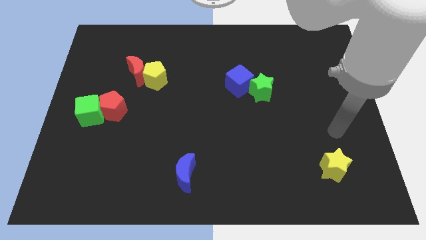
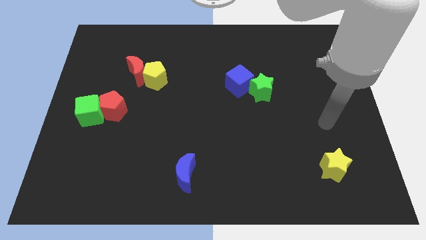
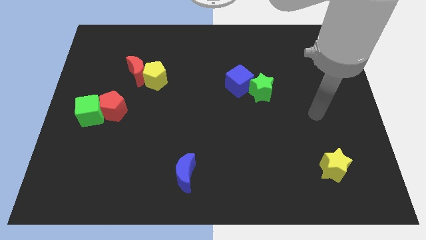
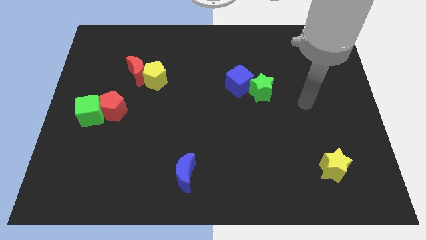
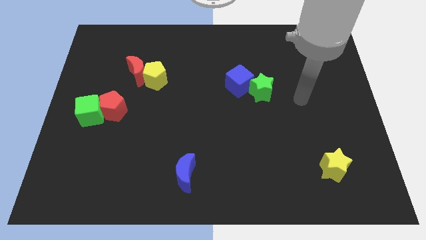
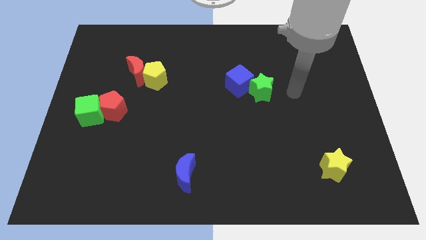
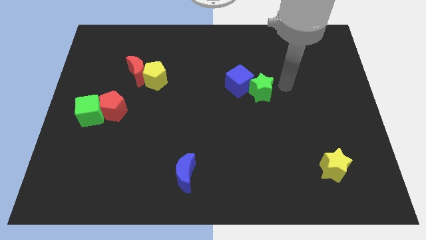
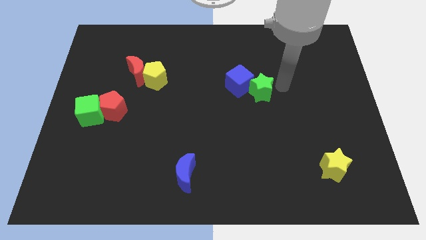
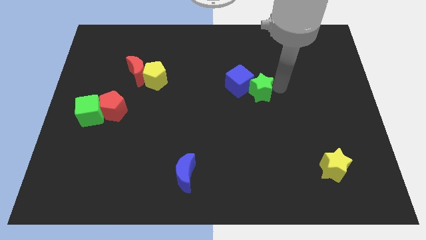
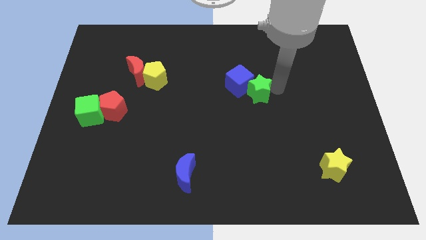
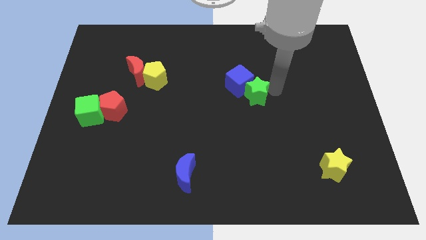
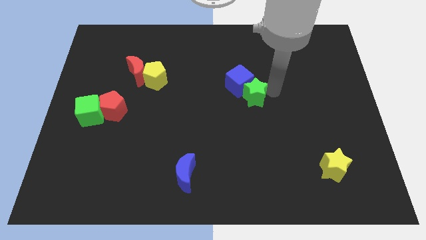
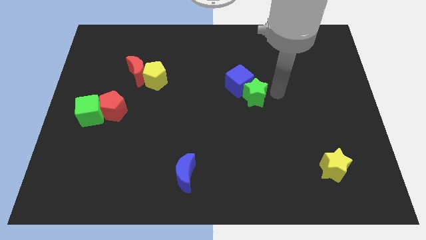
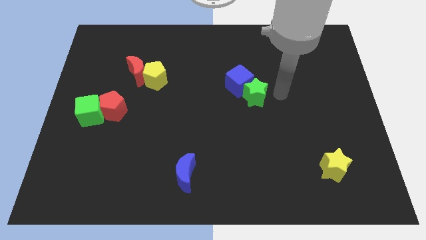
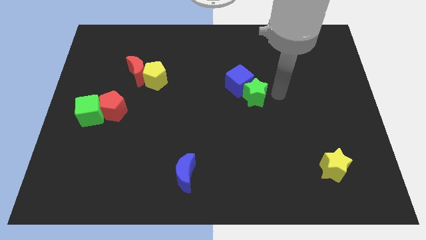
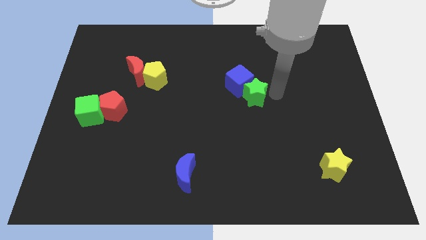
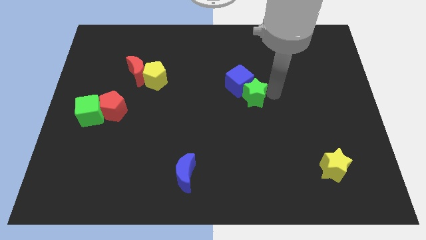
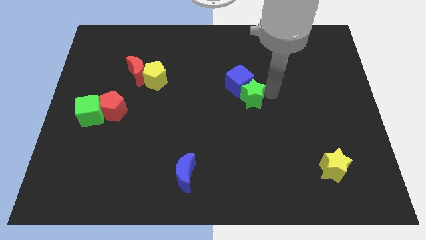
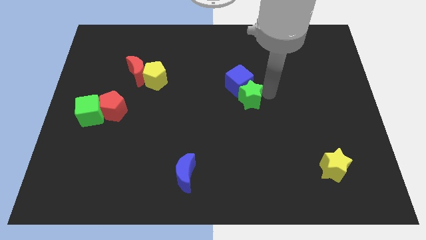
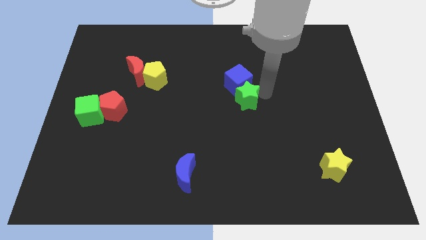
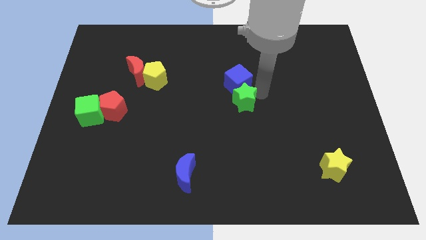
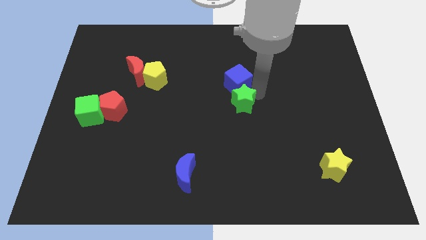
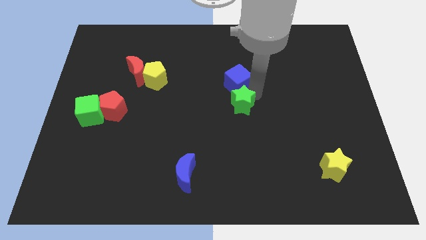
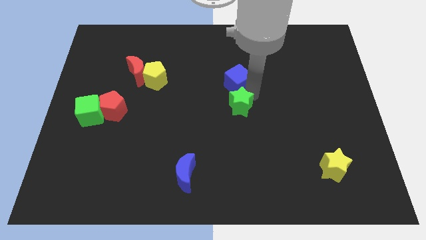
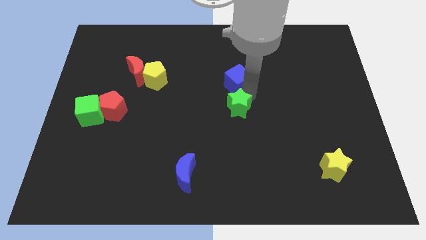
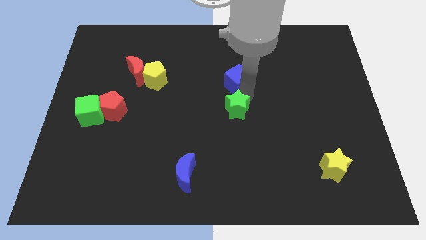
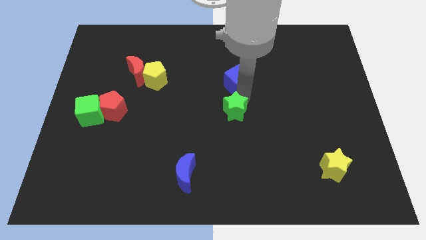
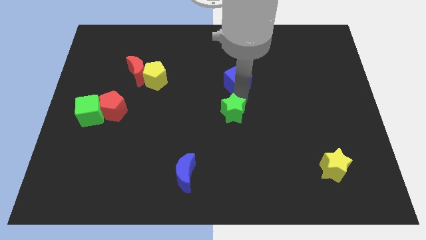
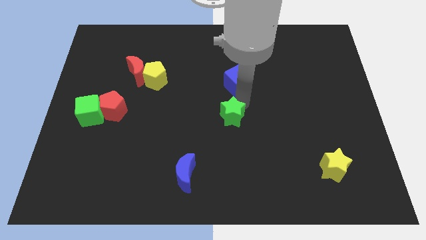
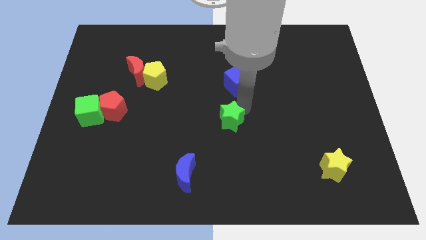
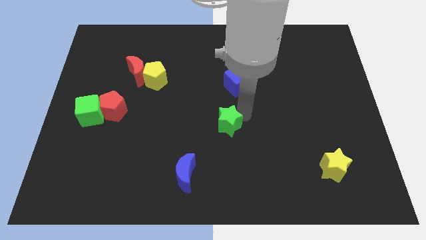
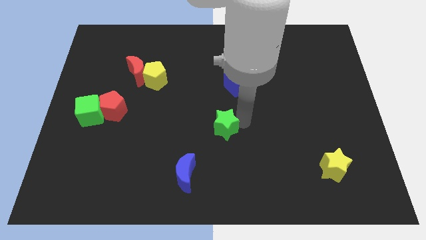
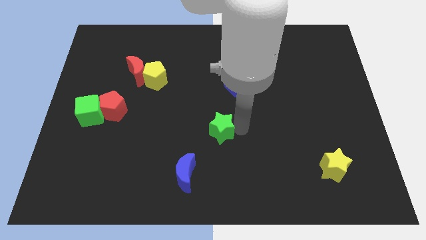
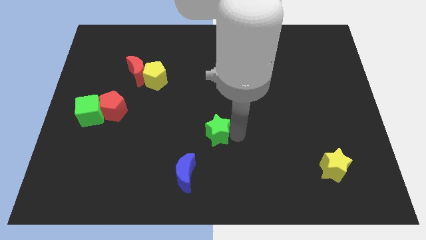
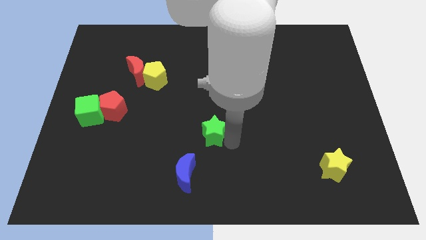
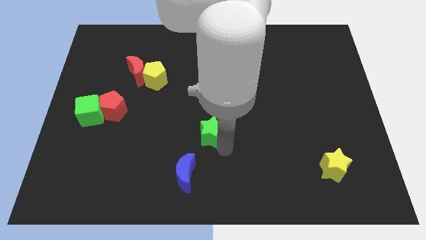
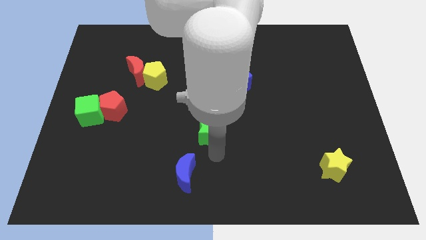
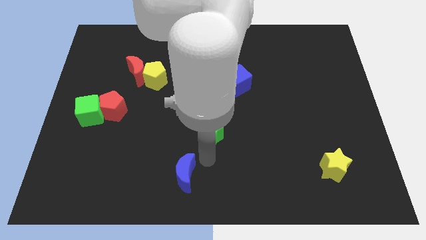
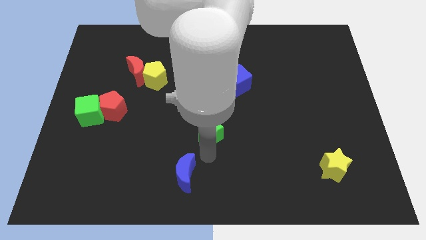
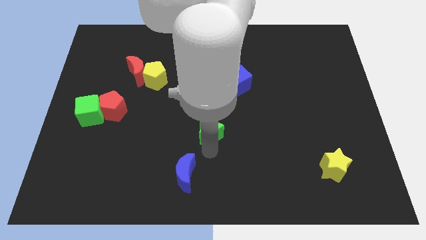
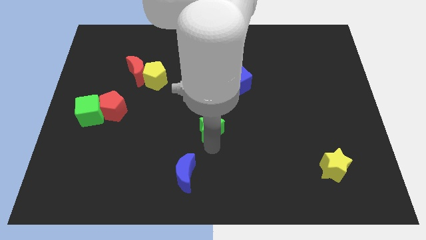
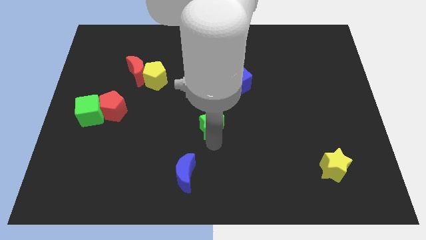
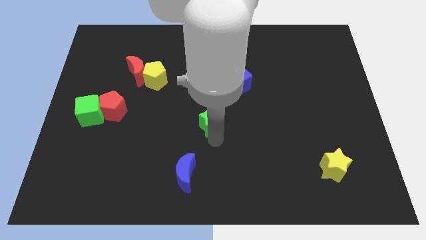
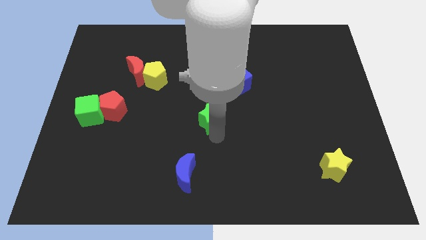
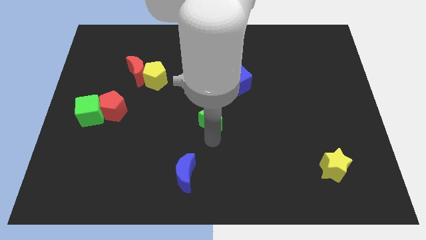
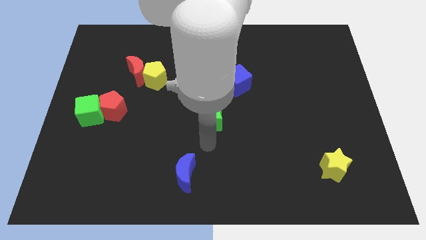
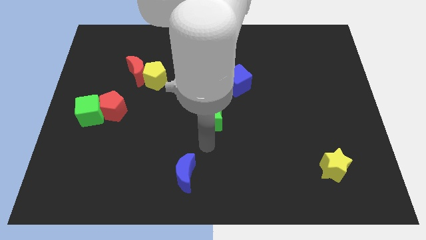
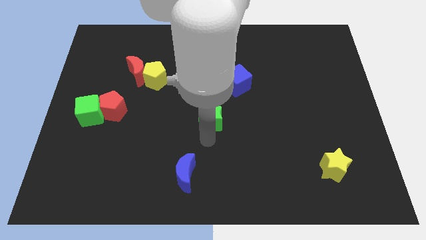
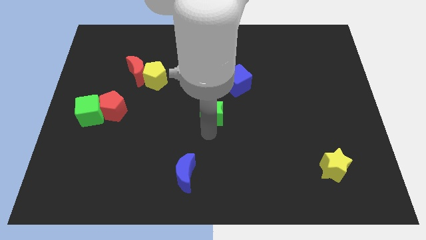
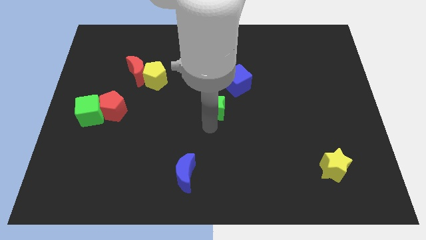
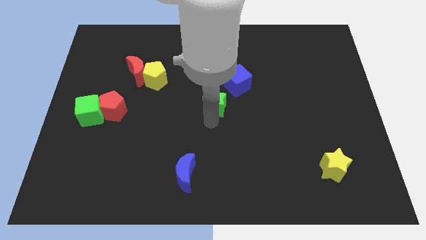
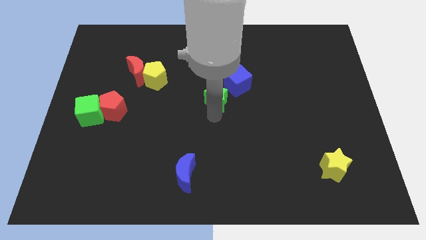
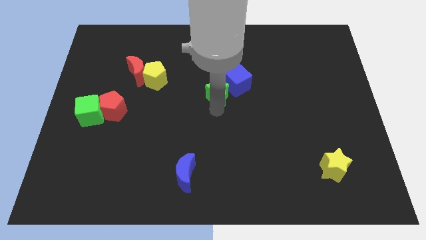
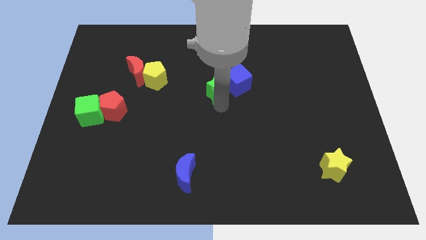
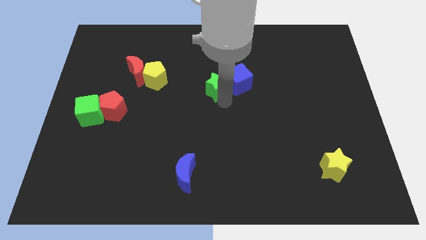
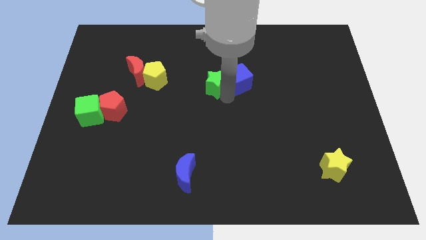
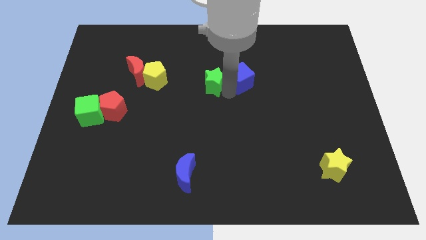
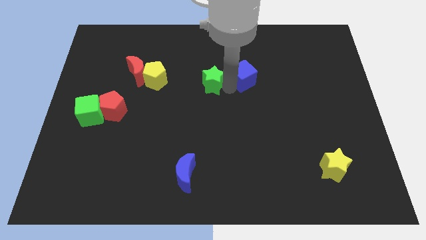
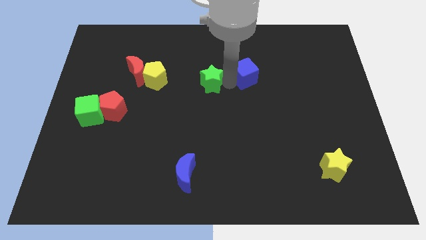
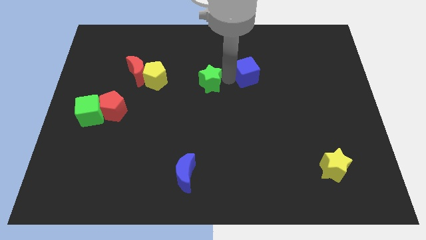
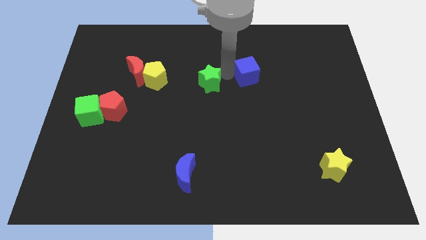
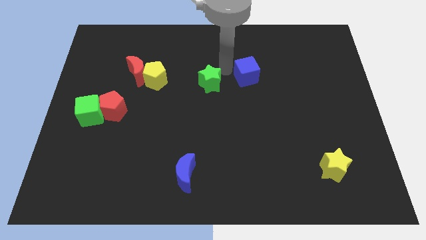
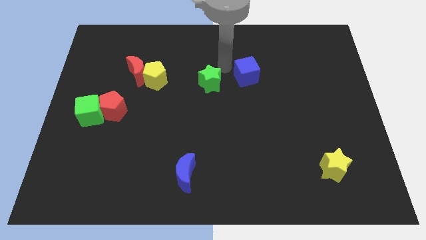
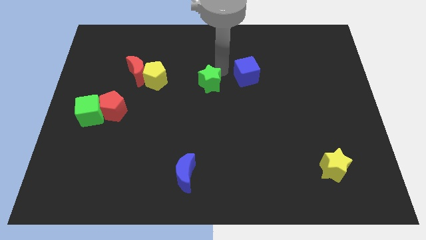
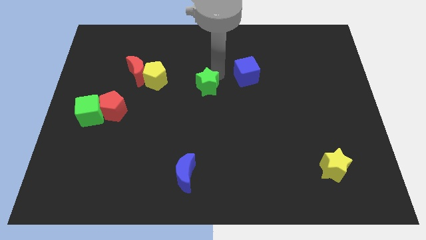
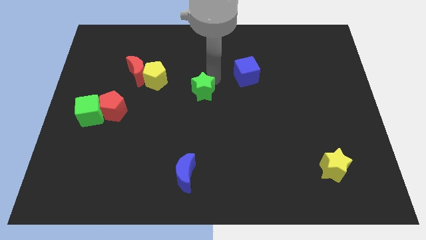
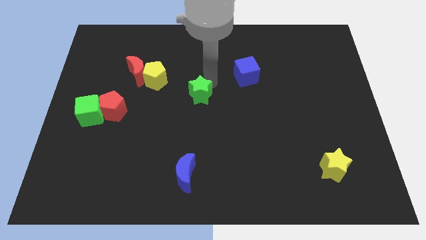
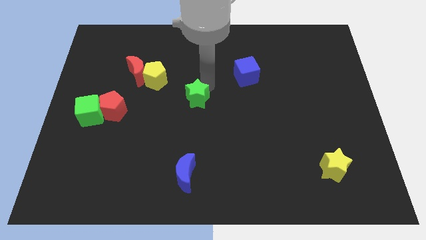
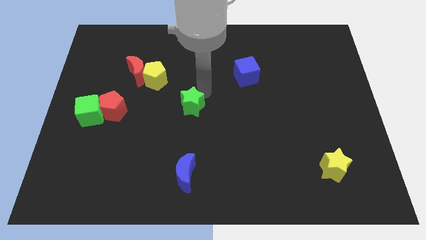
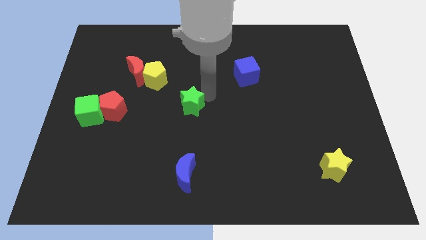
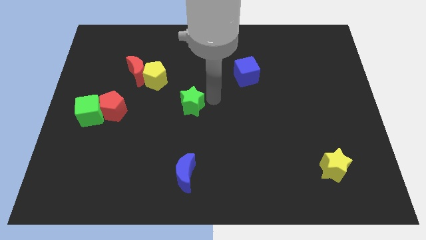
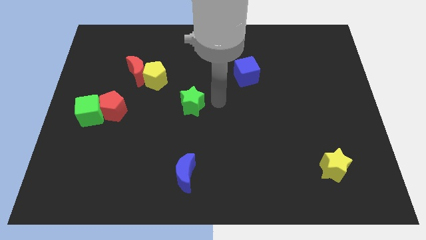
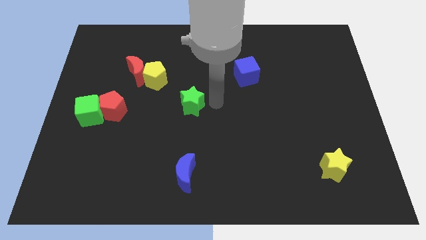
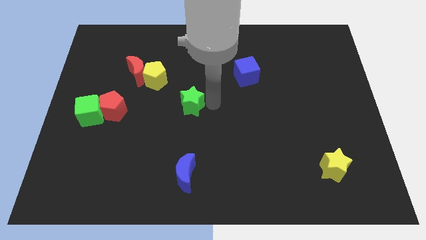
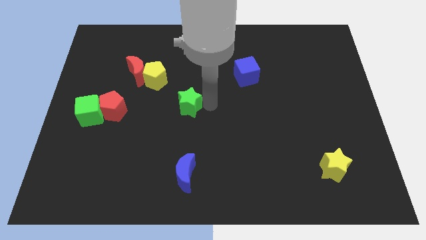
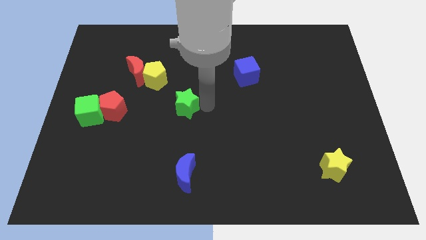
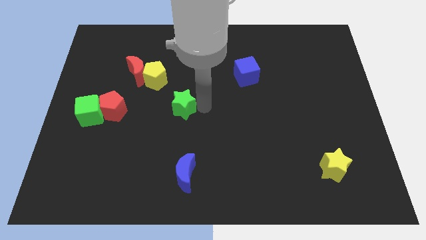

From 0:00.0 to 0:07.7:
put the green star just right of the red pentagon
